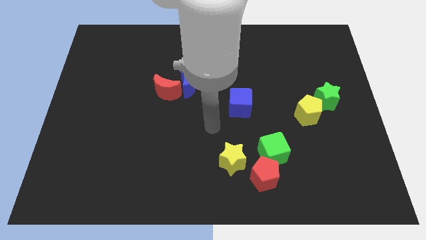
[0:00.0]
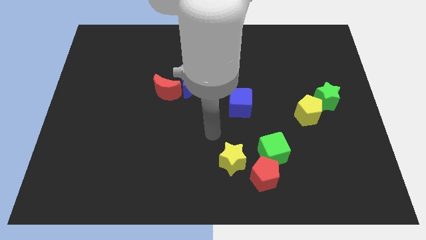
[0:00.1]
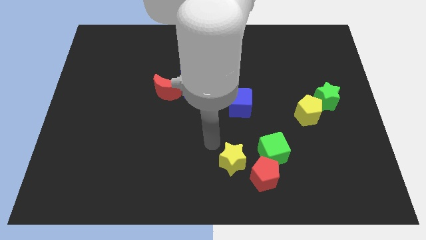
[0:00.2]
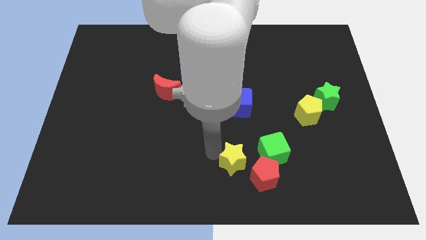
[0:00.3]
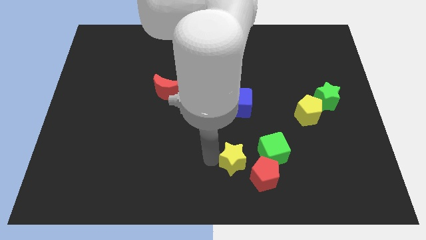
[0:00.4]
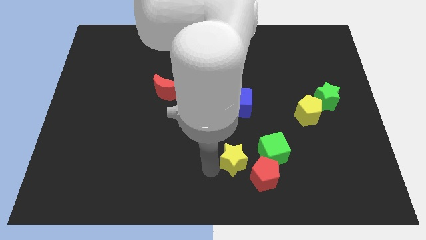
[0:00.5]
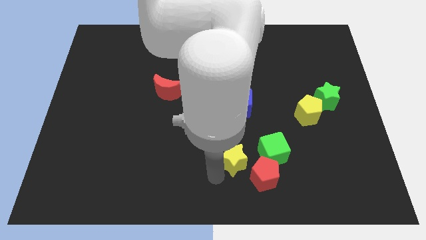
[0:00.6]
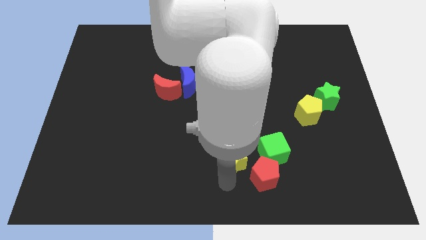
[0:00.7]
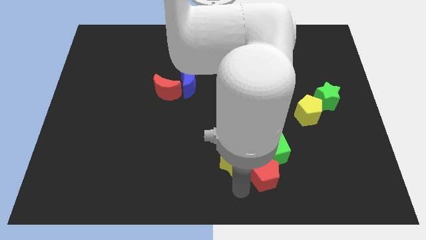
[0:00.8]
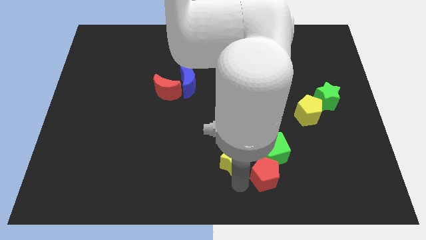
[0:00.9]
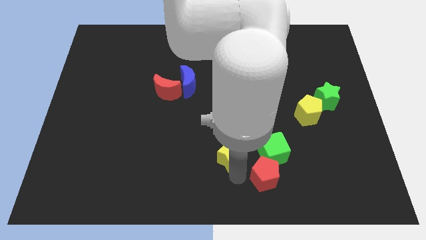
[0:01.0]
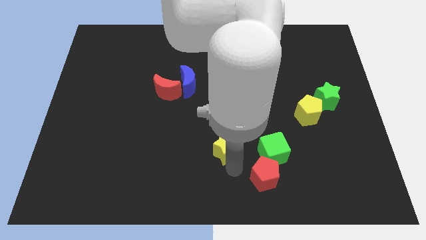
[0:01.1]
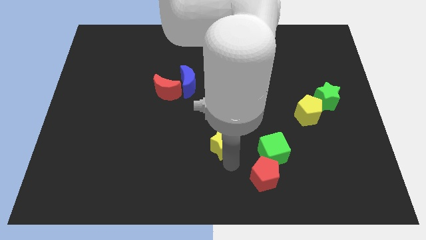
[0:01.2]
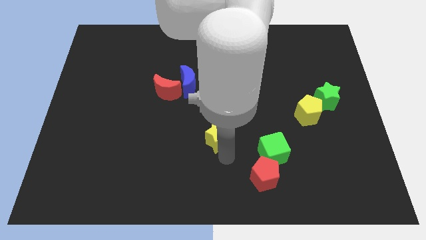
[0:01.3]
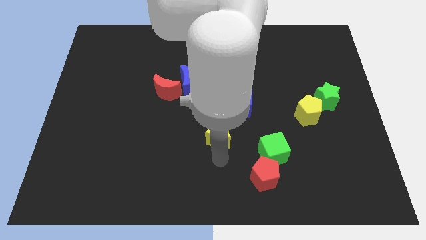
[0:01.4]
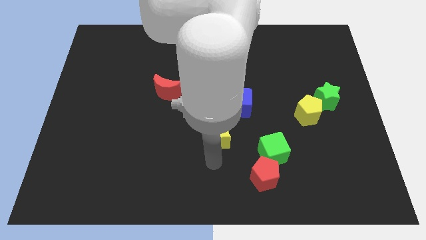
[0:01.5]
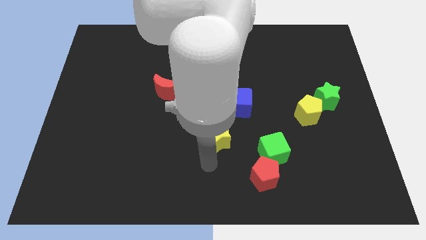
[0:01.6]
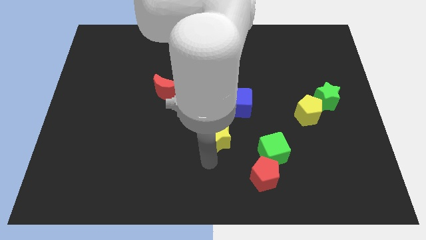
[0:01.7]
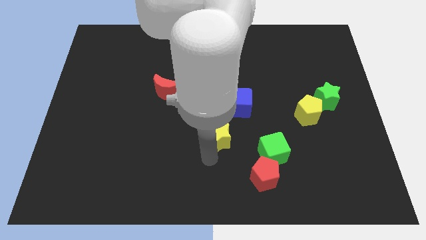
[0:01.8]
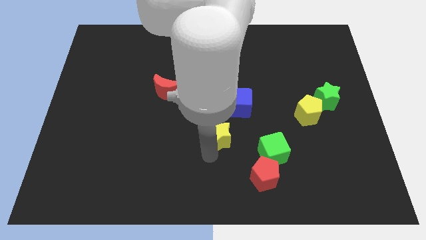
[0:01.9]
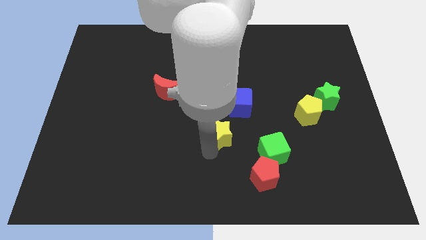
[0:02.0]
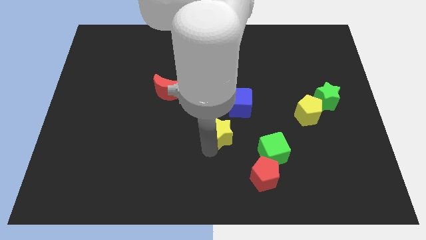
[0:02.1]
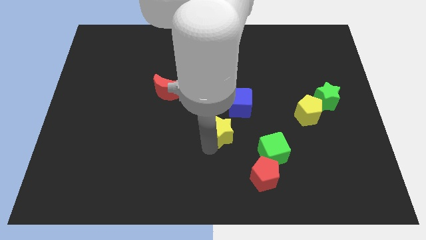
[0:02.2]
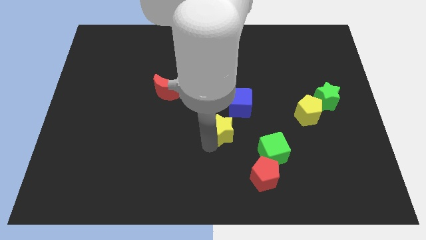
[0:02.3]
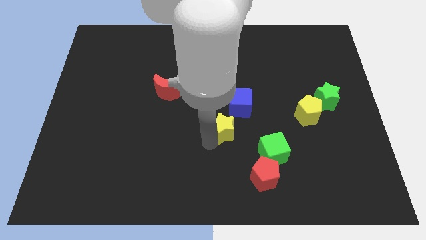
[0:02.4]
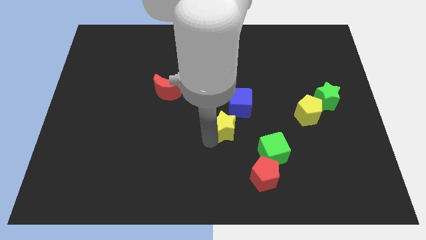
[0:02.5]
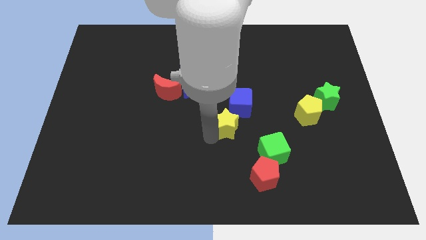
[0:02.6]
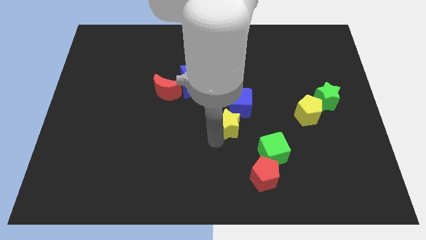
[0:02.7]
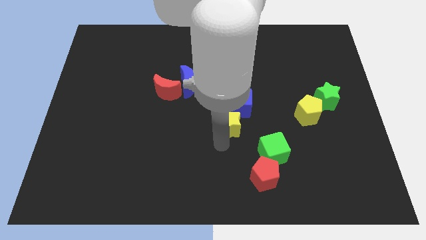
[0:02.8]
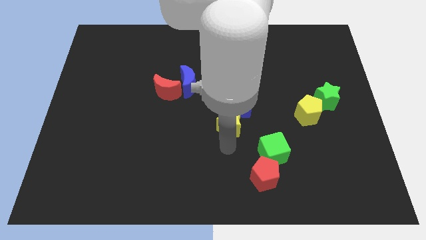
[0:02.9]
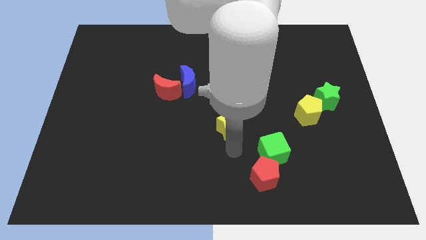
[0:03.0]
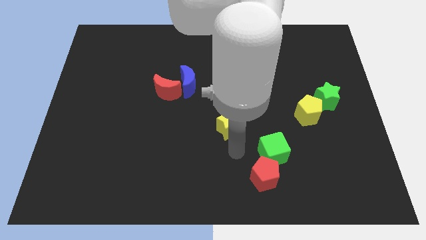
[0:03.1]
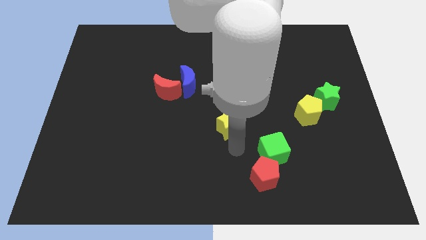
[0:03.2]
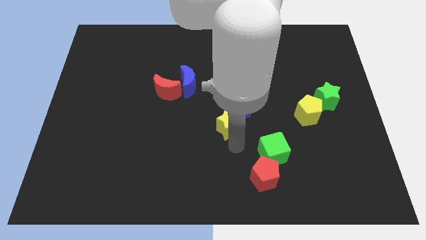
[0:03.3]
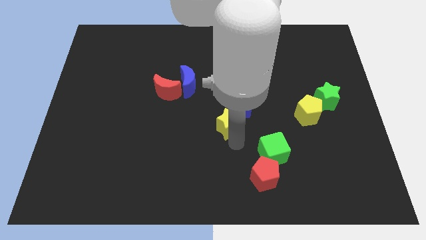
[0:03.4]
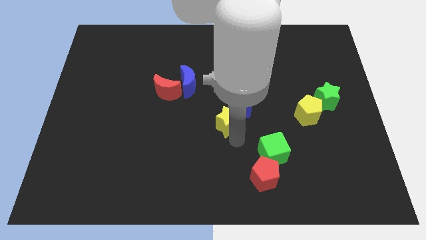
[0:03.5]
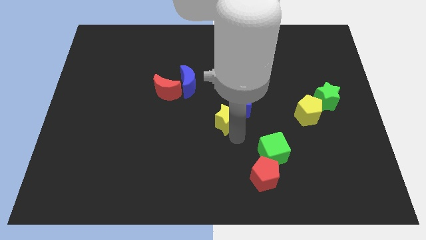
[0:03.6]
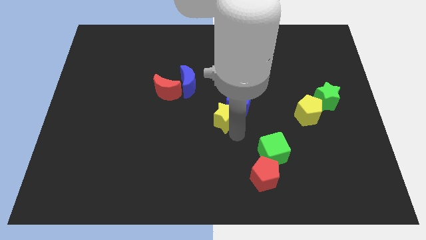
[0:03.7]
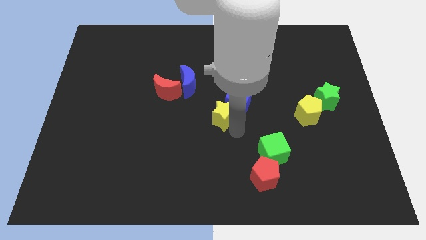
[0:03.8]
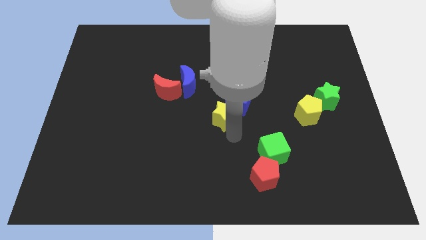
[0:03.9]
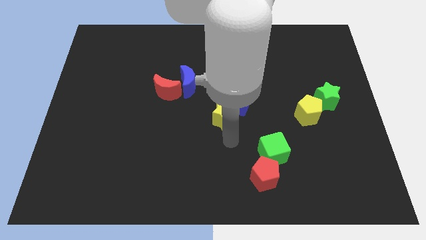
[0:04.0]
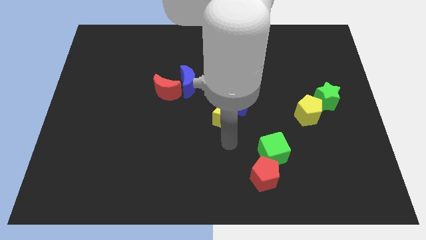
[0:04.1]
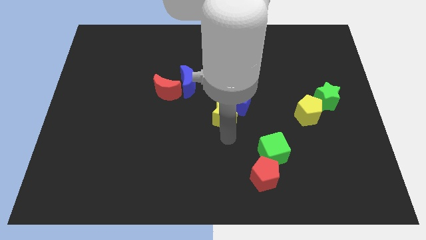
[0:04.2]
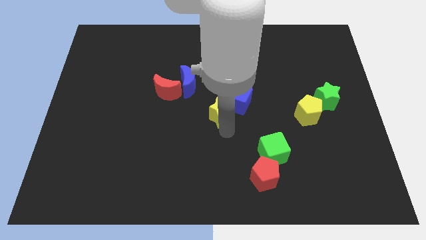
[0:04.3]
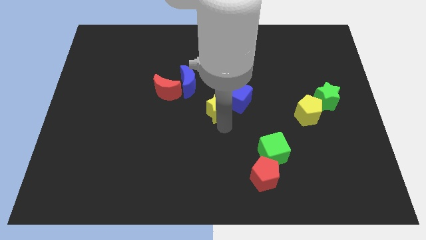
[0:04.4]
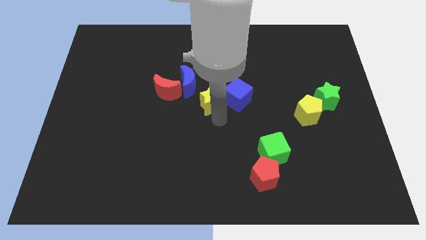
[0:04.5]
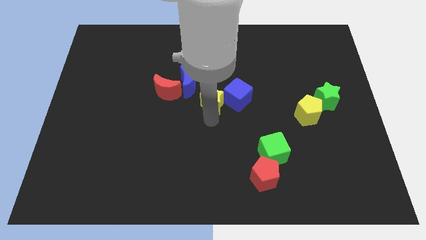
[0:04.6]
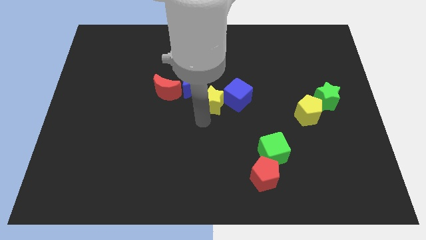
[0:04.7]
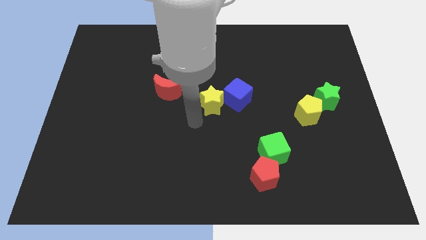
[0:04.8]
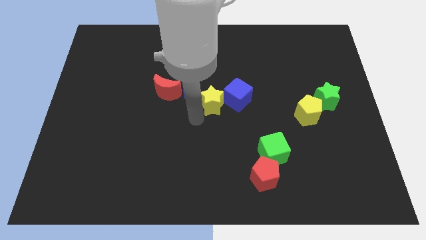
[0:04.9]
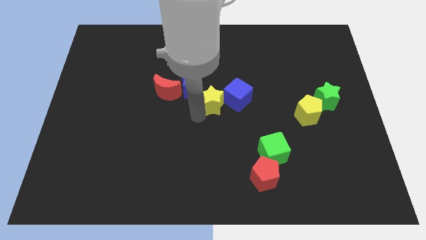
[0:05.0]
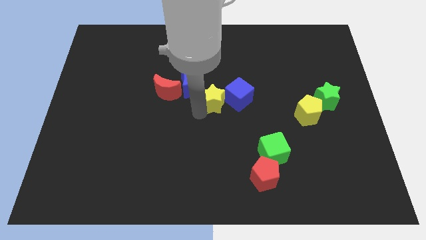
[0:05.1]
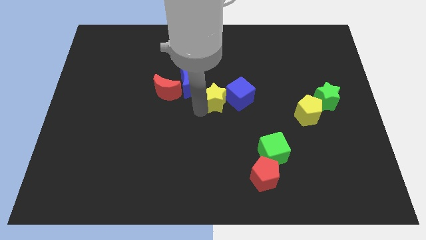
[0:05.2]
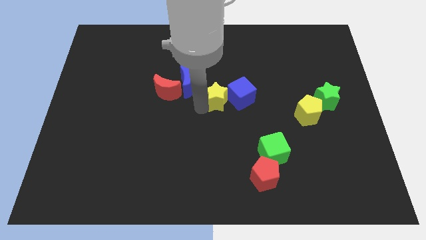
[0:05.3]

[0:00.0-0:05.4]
put the yellow star to the right side of the blue moon
